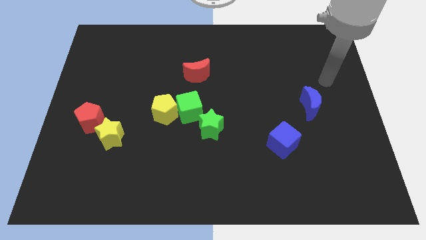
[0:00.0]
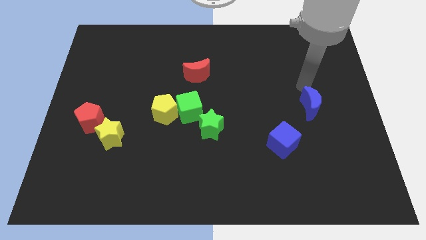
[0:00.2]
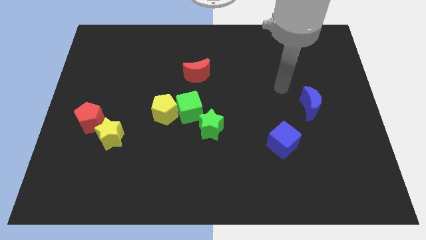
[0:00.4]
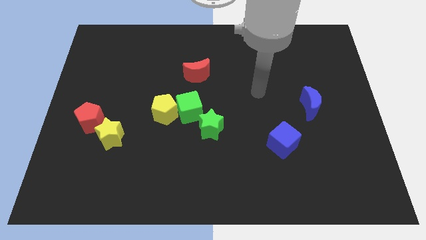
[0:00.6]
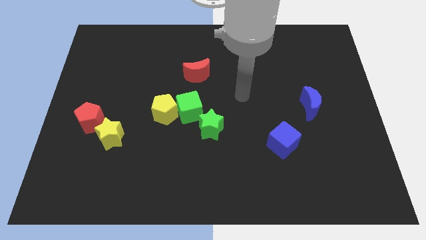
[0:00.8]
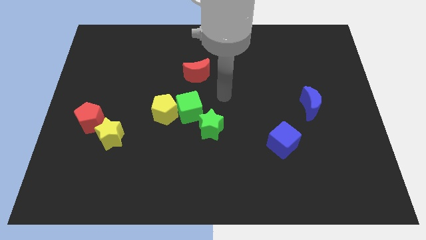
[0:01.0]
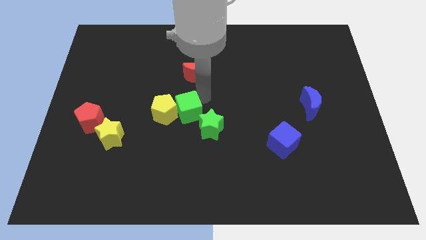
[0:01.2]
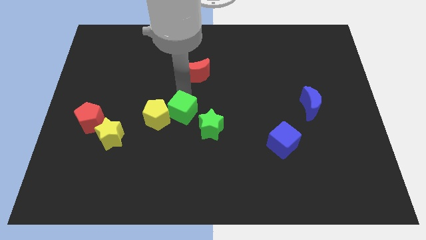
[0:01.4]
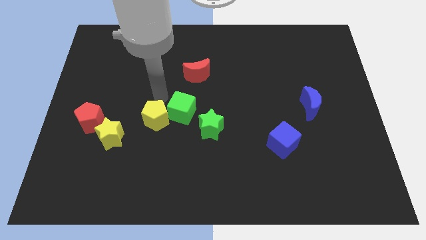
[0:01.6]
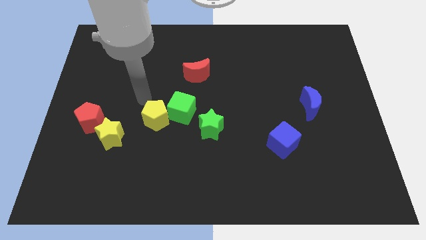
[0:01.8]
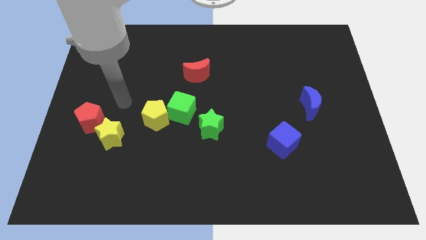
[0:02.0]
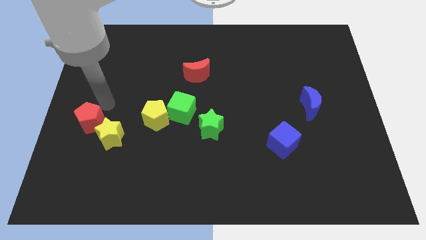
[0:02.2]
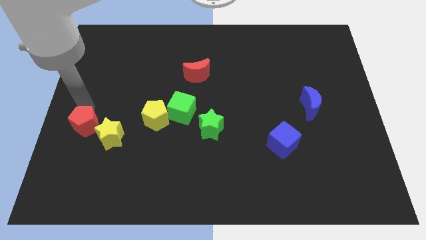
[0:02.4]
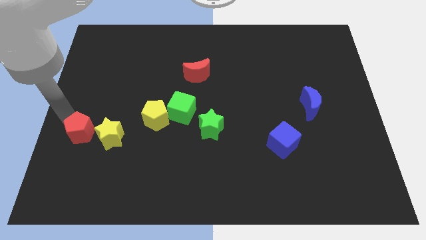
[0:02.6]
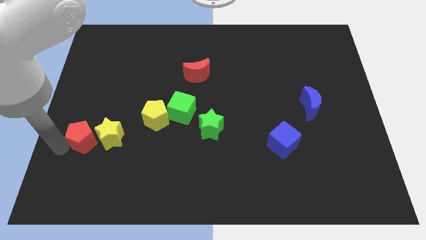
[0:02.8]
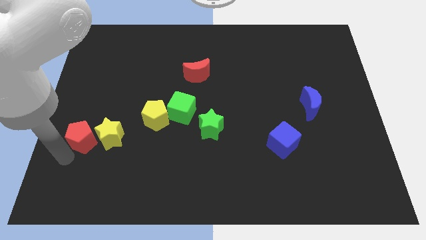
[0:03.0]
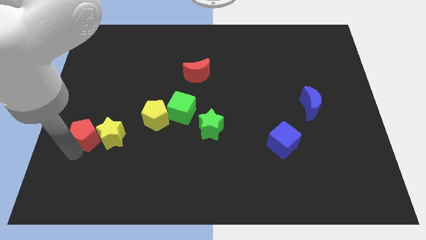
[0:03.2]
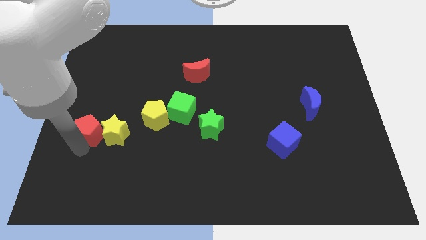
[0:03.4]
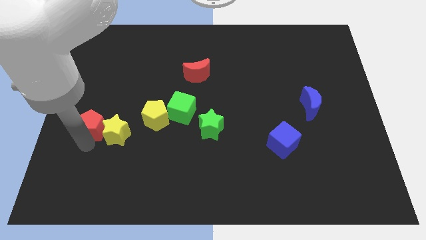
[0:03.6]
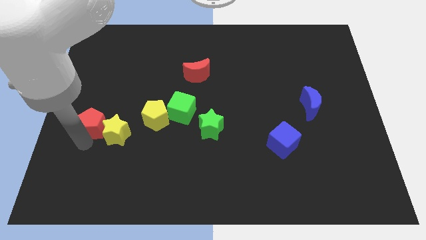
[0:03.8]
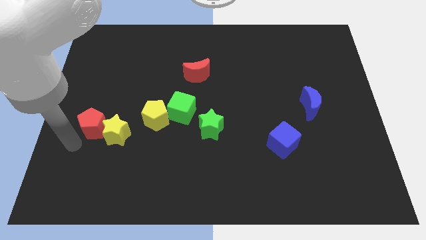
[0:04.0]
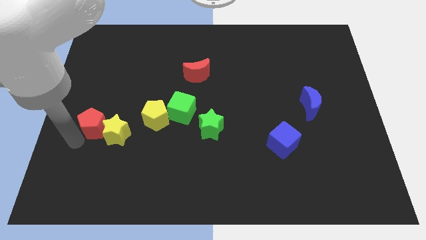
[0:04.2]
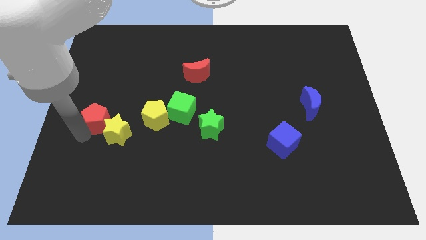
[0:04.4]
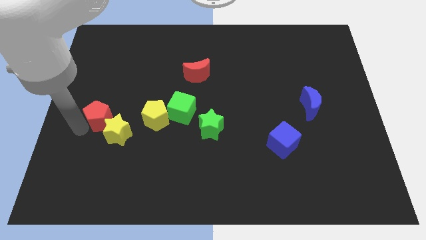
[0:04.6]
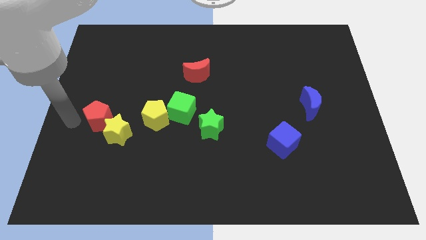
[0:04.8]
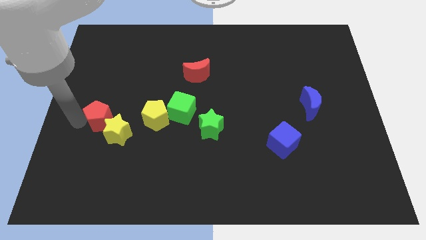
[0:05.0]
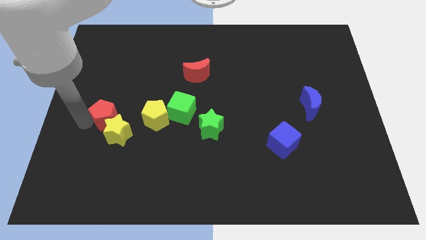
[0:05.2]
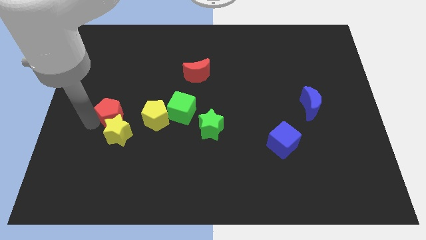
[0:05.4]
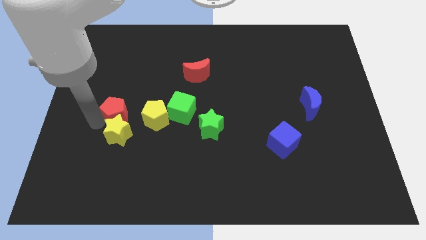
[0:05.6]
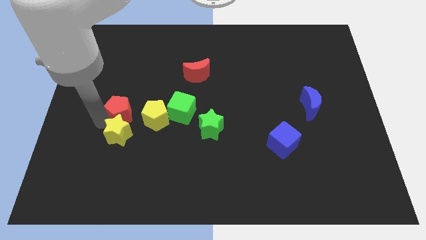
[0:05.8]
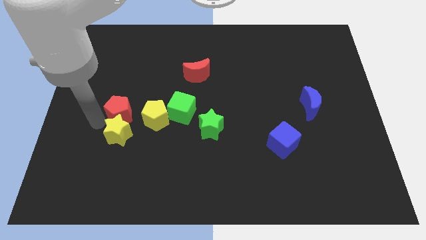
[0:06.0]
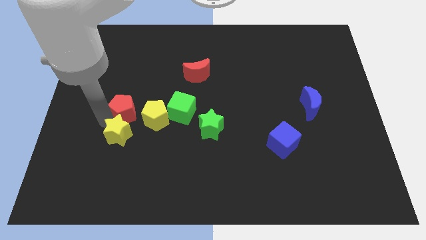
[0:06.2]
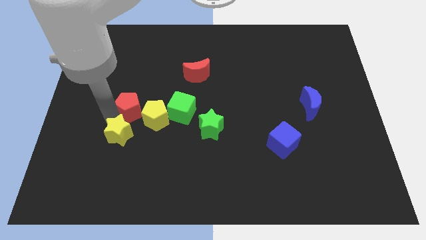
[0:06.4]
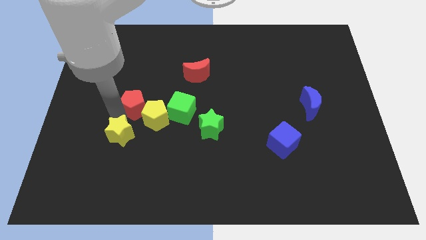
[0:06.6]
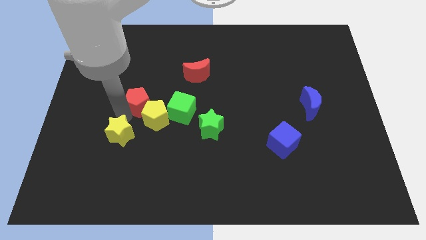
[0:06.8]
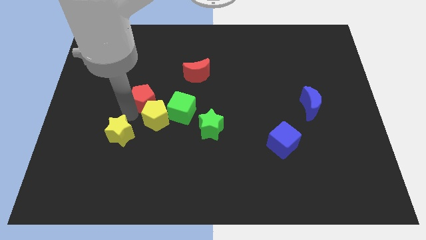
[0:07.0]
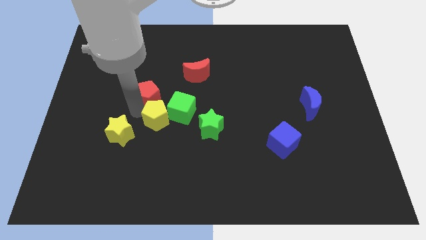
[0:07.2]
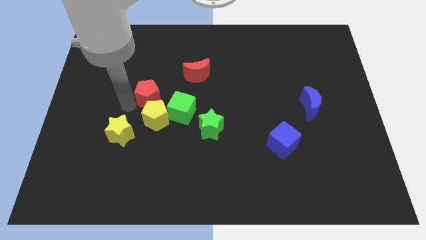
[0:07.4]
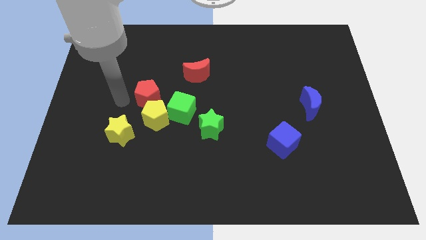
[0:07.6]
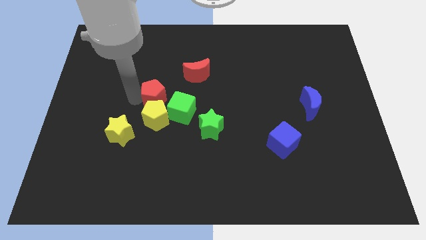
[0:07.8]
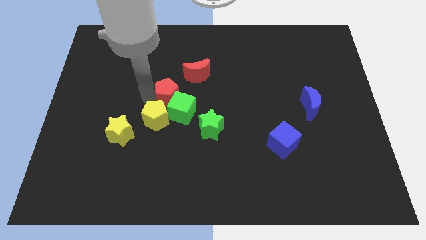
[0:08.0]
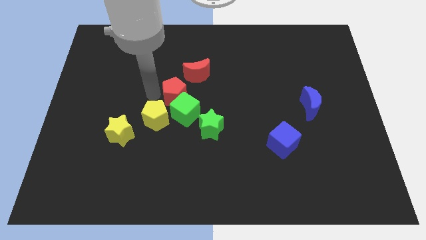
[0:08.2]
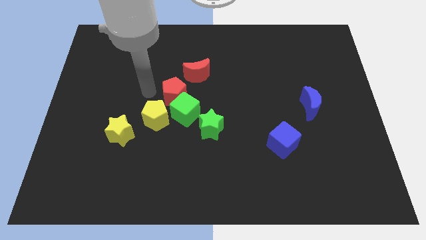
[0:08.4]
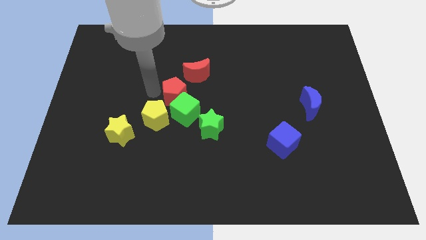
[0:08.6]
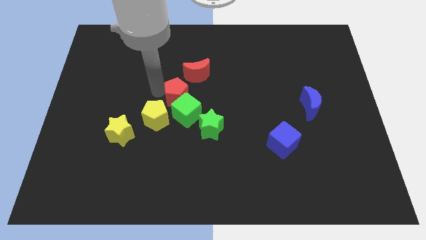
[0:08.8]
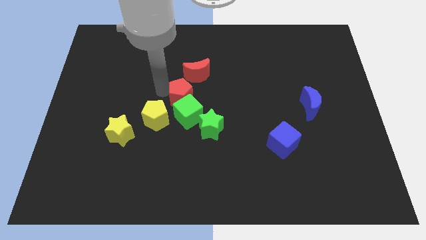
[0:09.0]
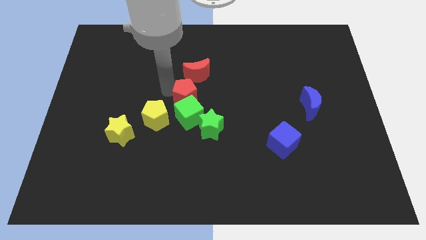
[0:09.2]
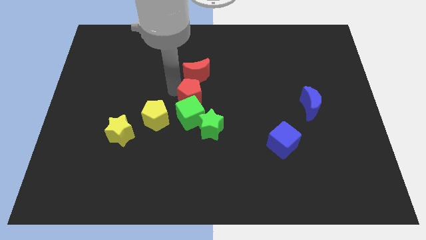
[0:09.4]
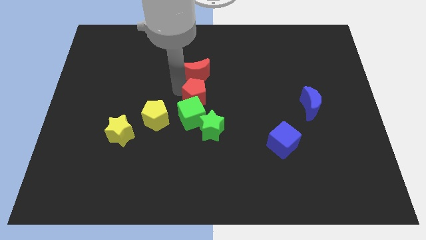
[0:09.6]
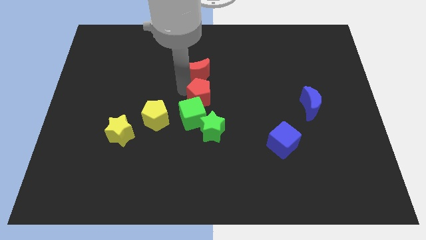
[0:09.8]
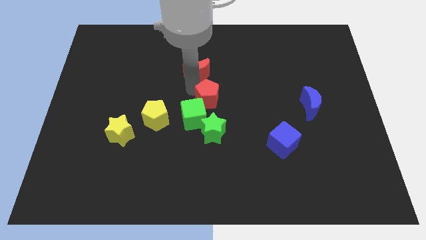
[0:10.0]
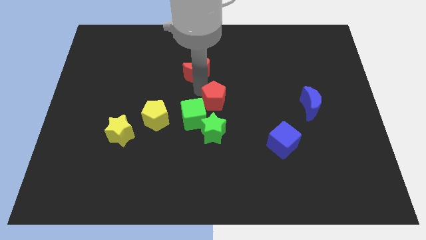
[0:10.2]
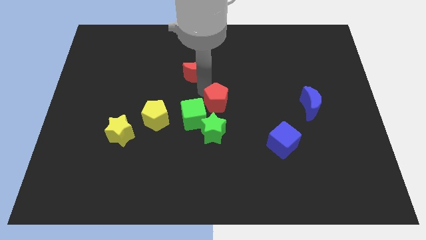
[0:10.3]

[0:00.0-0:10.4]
push the red pentagon just right of the green cube

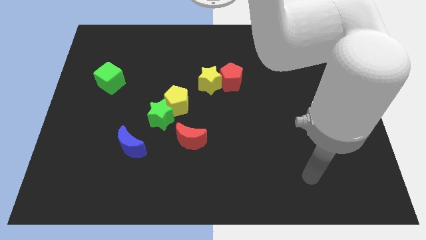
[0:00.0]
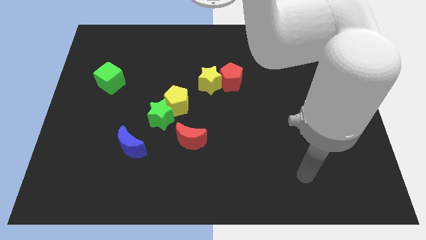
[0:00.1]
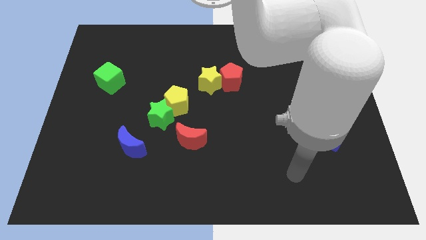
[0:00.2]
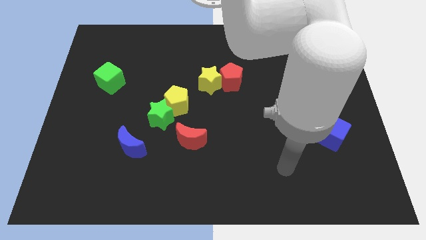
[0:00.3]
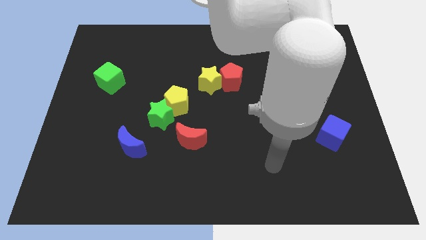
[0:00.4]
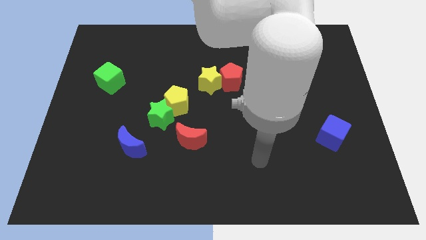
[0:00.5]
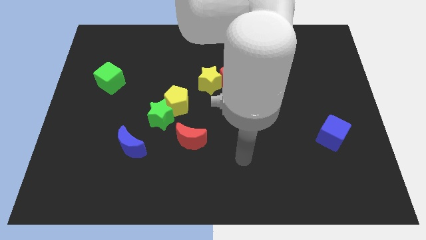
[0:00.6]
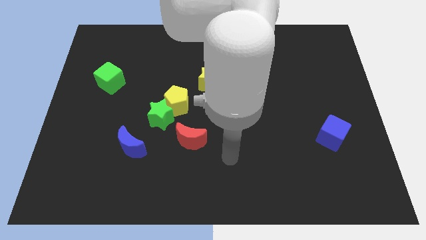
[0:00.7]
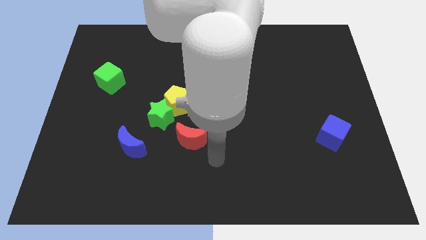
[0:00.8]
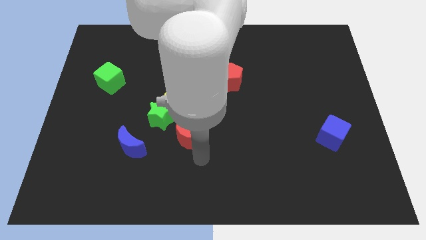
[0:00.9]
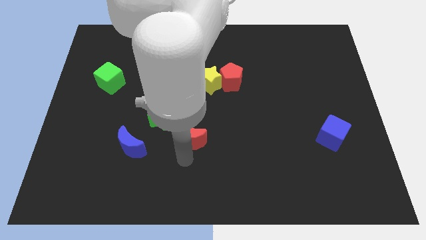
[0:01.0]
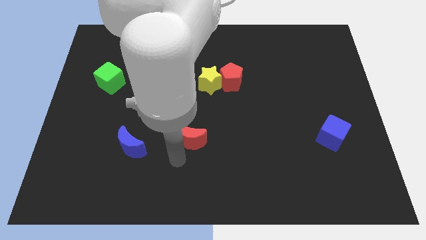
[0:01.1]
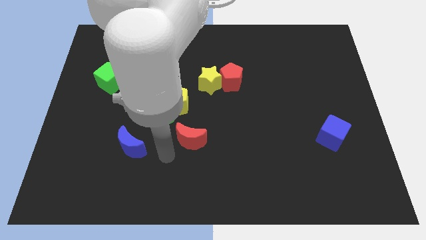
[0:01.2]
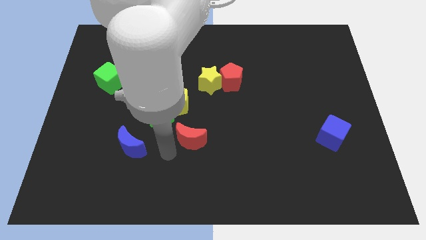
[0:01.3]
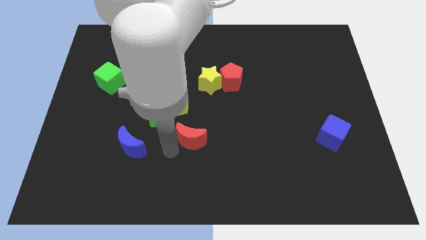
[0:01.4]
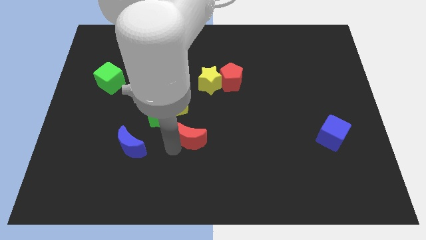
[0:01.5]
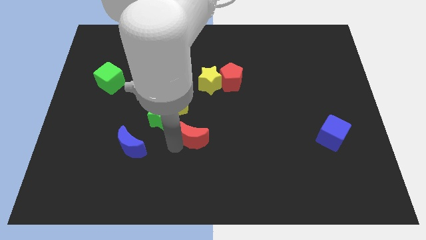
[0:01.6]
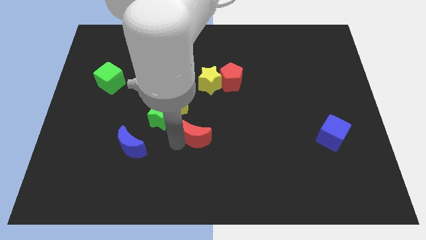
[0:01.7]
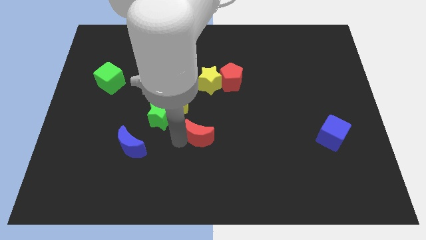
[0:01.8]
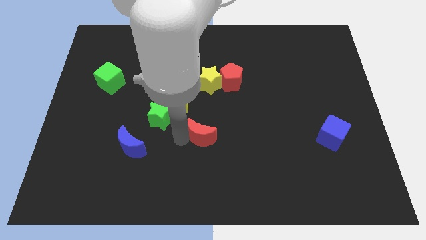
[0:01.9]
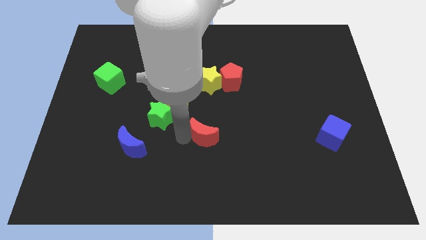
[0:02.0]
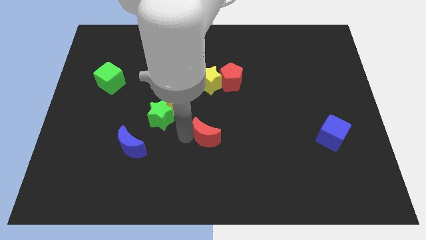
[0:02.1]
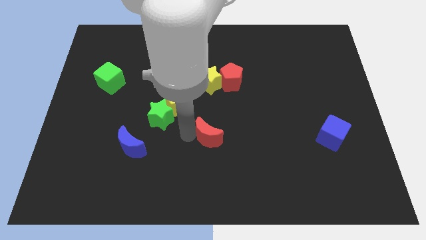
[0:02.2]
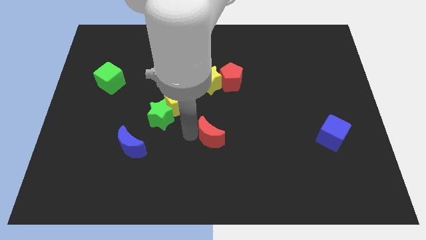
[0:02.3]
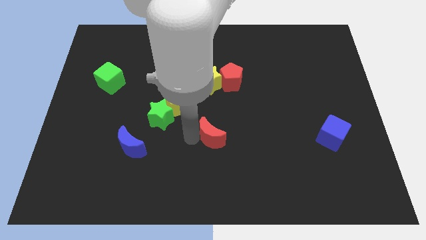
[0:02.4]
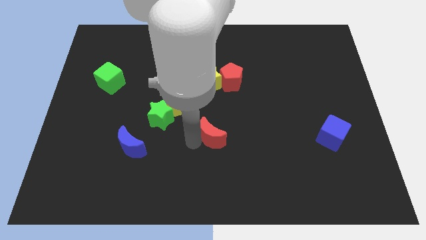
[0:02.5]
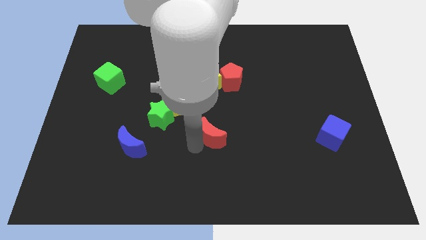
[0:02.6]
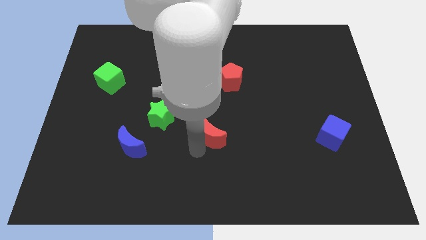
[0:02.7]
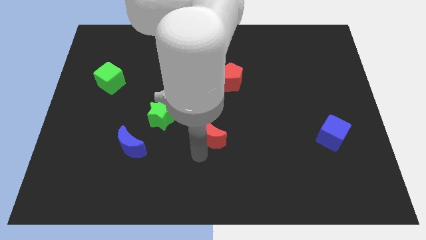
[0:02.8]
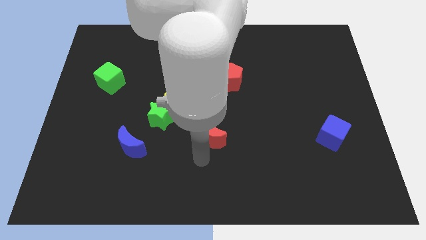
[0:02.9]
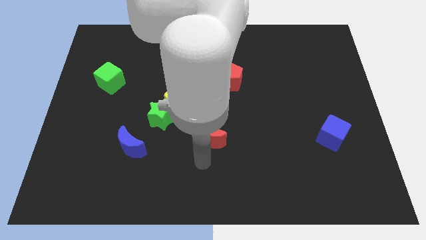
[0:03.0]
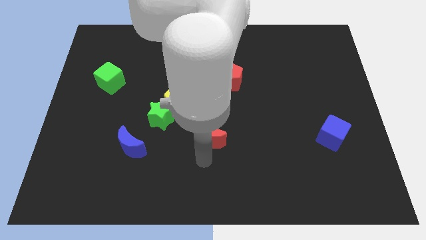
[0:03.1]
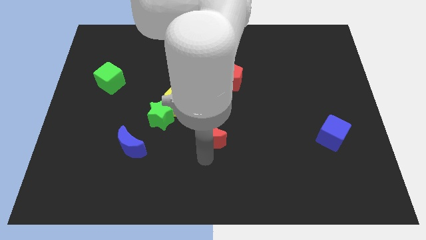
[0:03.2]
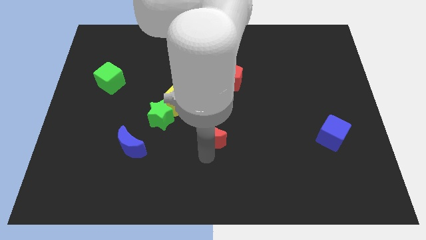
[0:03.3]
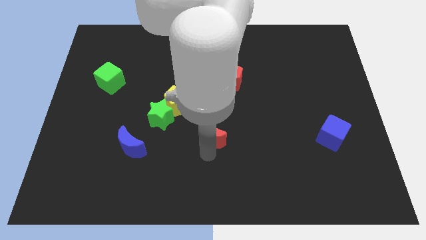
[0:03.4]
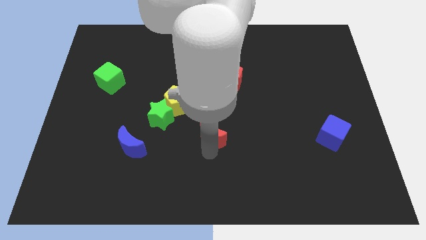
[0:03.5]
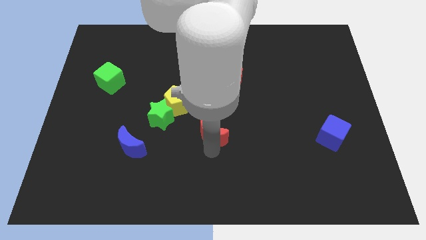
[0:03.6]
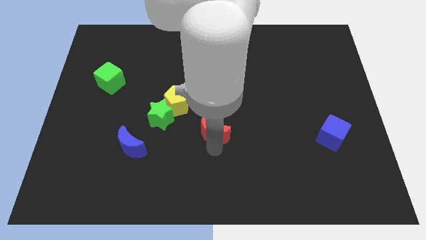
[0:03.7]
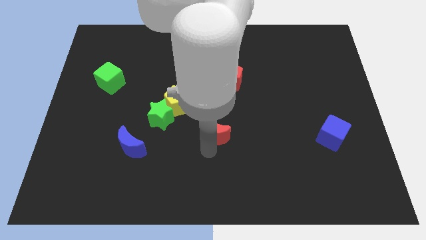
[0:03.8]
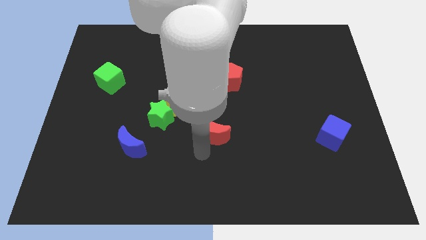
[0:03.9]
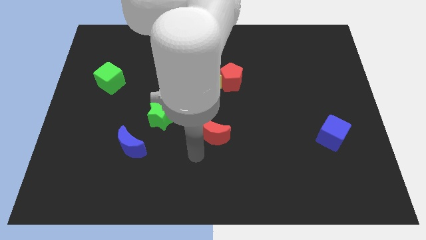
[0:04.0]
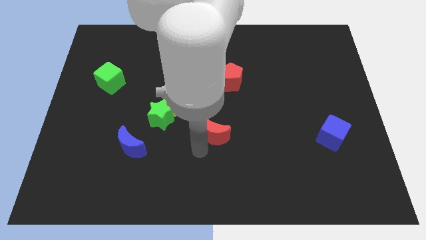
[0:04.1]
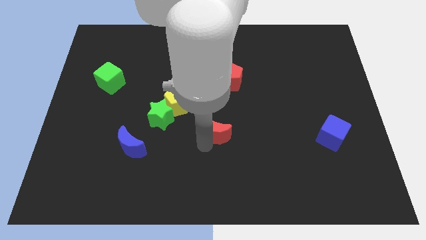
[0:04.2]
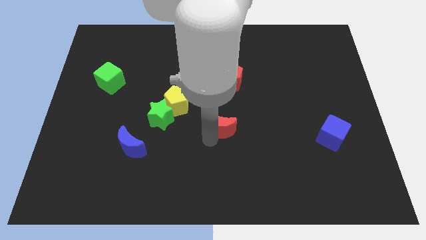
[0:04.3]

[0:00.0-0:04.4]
put the red moon to the bottom of the red pentagon
